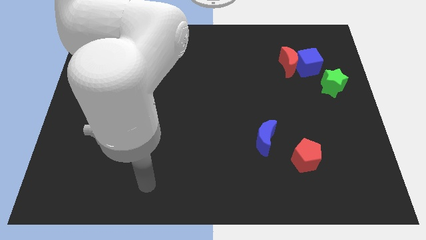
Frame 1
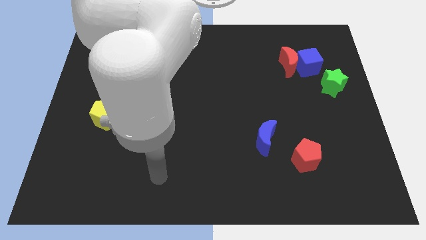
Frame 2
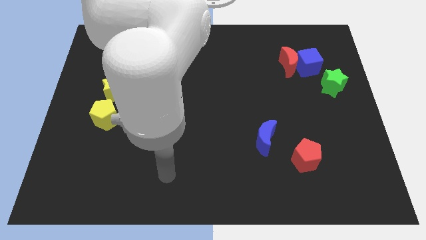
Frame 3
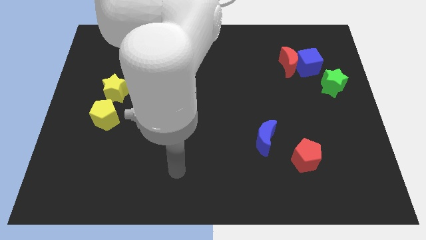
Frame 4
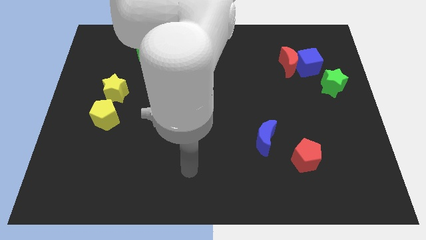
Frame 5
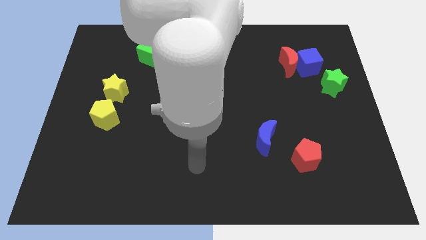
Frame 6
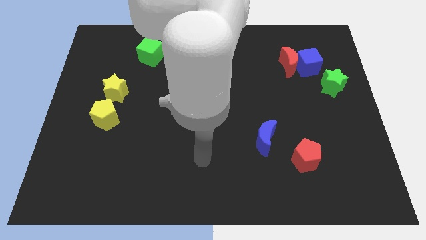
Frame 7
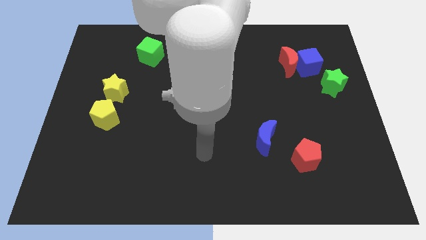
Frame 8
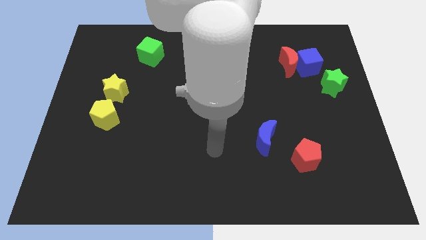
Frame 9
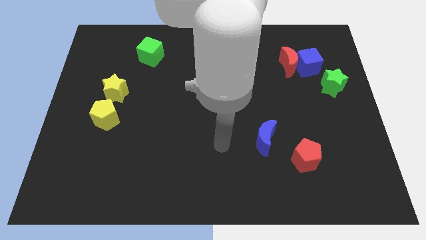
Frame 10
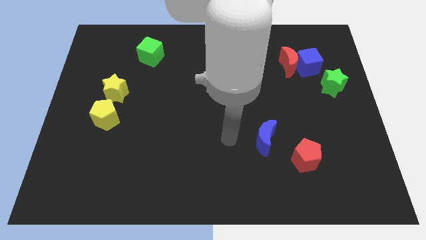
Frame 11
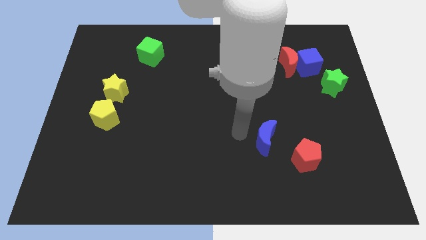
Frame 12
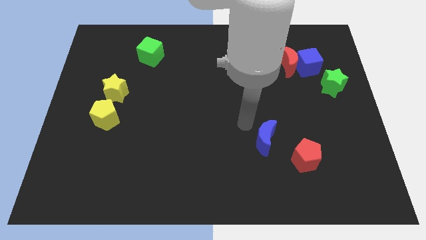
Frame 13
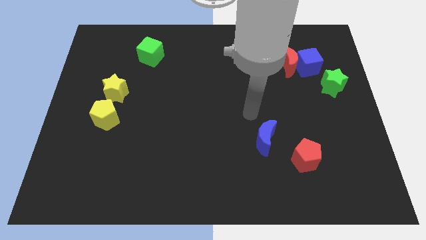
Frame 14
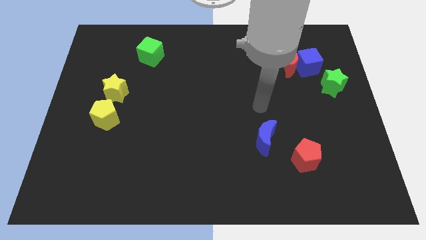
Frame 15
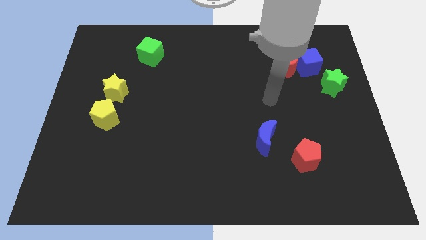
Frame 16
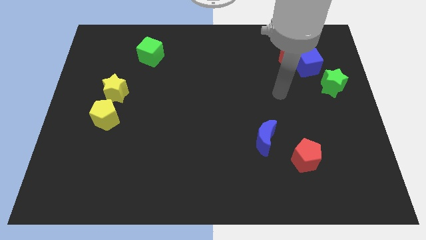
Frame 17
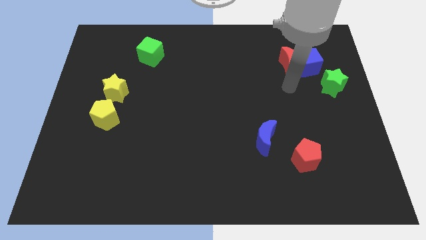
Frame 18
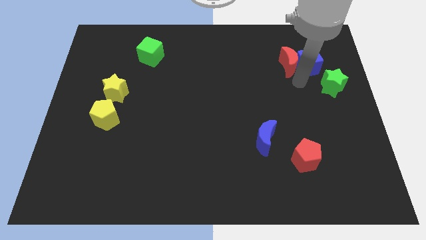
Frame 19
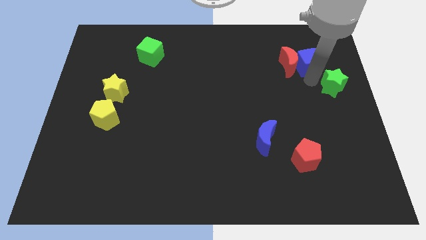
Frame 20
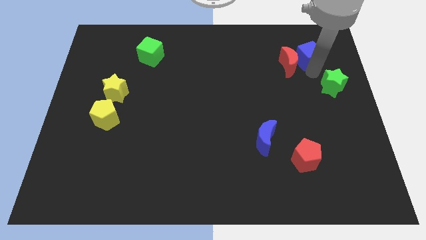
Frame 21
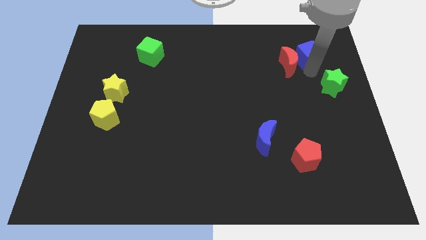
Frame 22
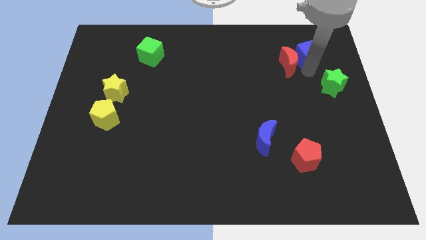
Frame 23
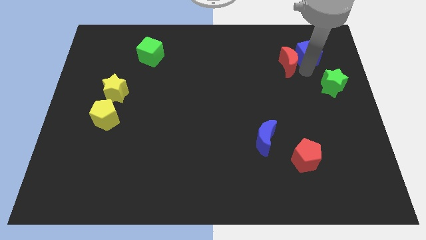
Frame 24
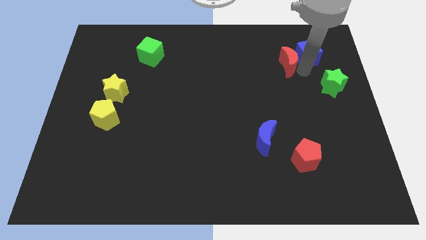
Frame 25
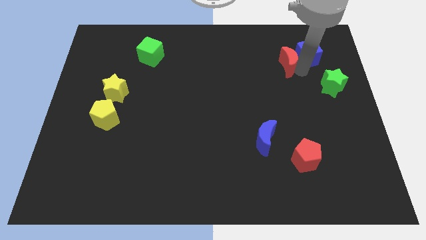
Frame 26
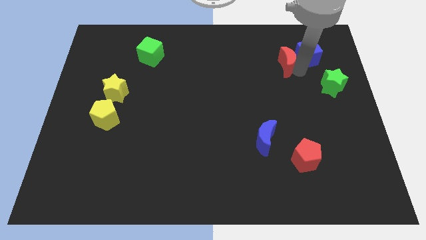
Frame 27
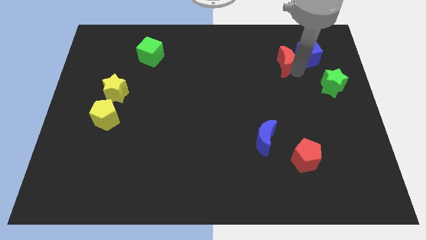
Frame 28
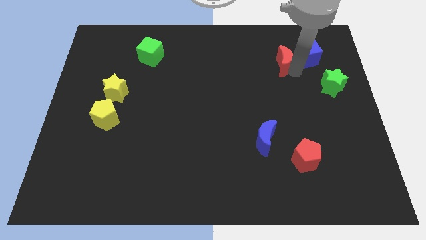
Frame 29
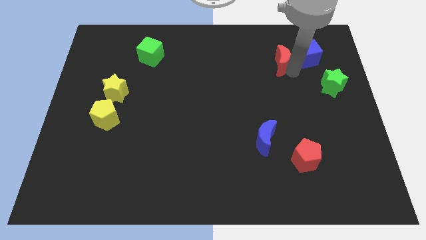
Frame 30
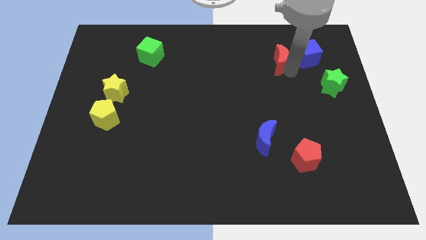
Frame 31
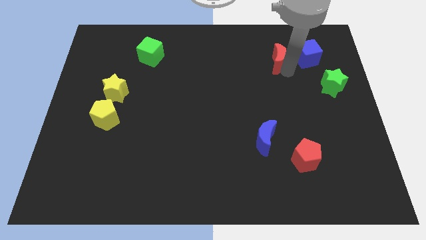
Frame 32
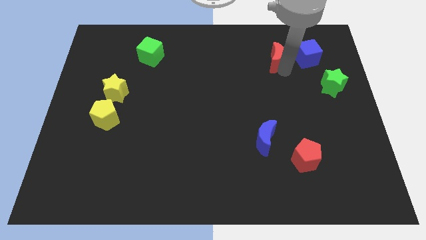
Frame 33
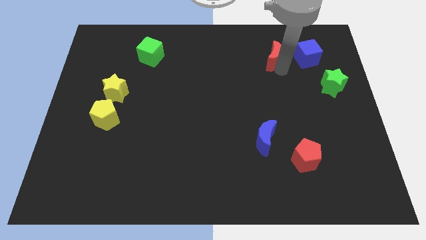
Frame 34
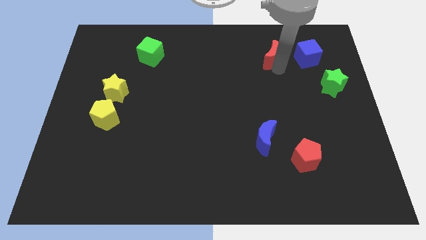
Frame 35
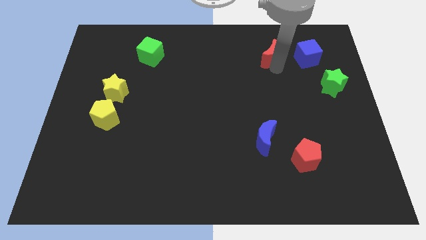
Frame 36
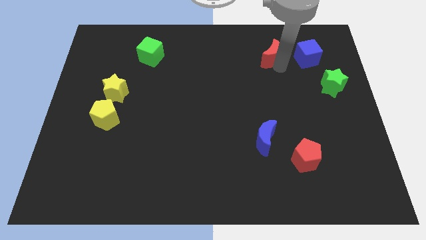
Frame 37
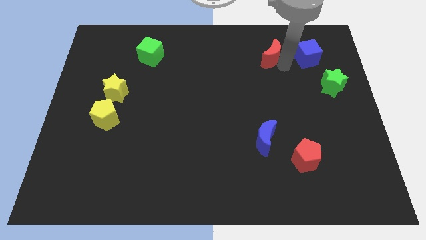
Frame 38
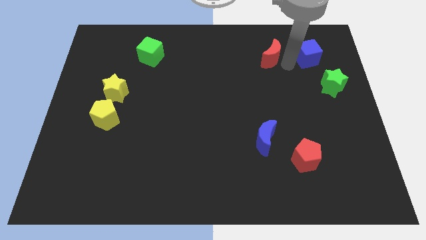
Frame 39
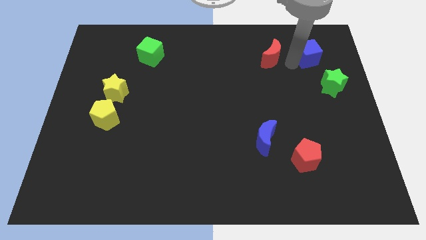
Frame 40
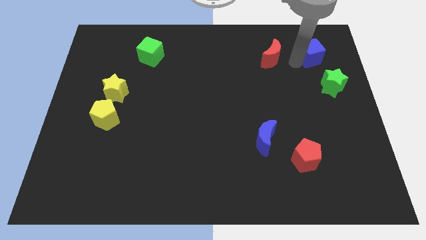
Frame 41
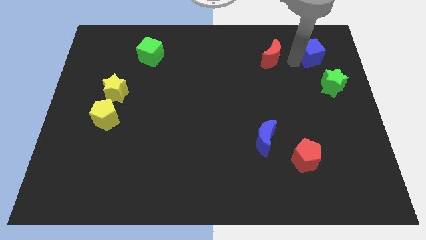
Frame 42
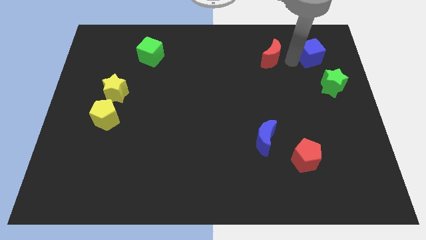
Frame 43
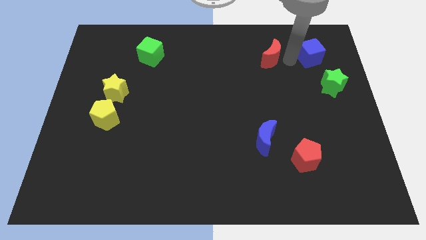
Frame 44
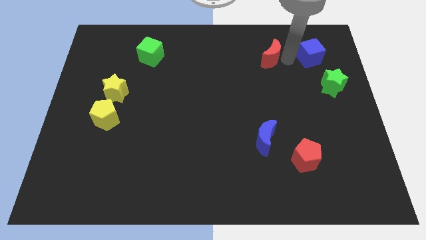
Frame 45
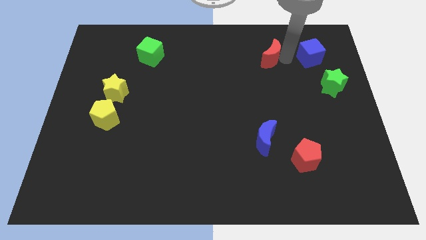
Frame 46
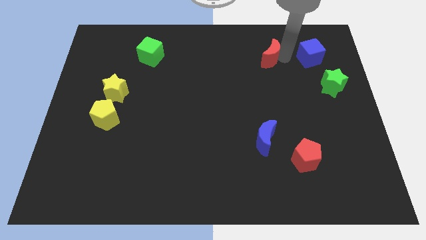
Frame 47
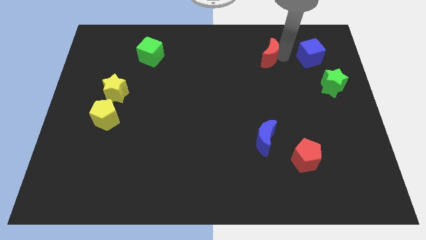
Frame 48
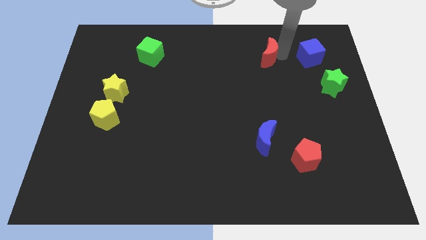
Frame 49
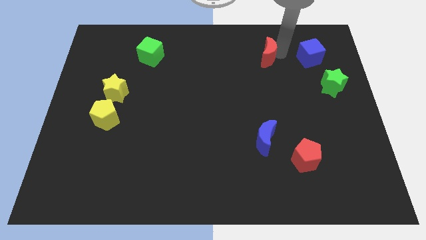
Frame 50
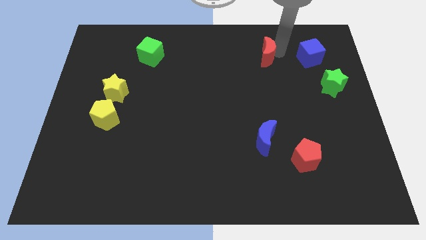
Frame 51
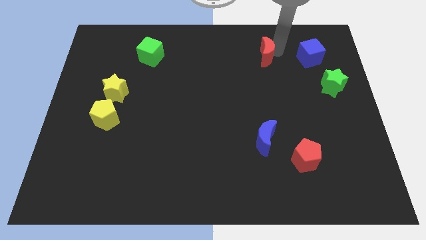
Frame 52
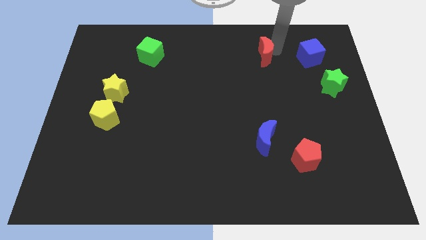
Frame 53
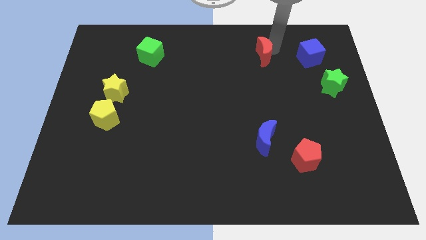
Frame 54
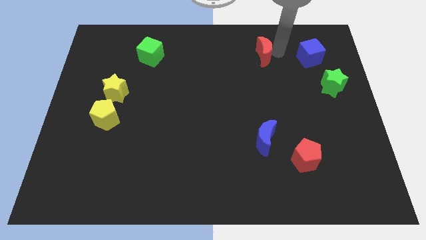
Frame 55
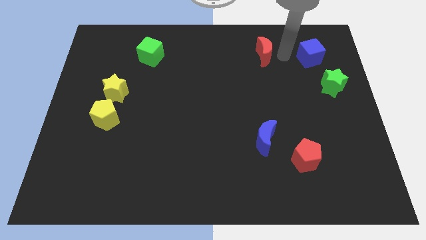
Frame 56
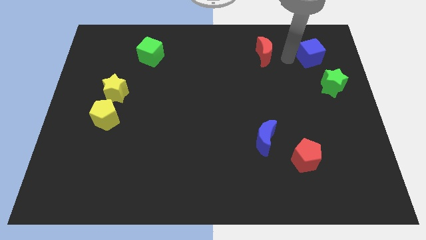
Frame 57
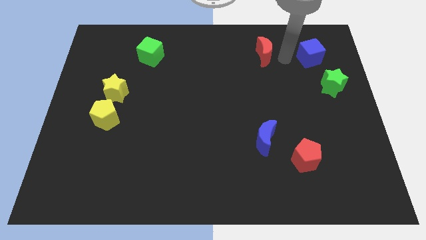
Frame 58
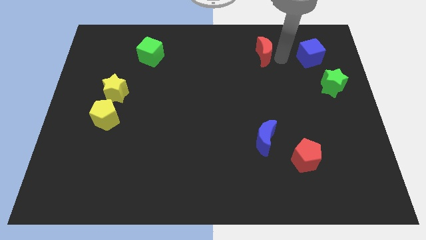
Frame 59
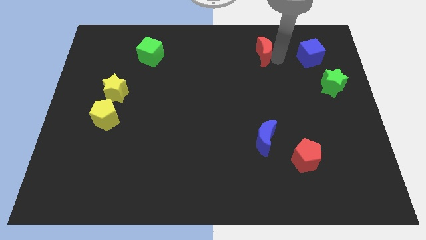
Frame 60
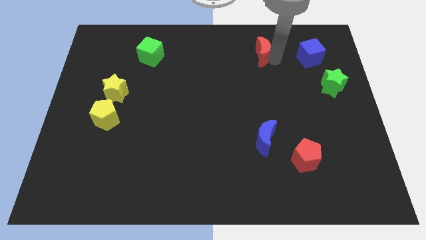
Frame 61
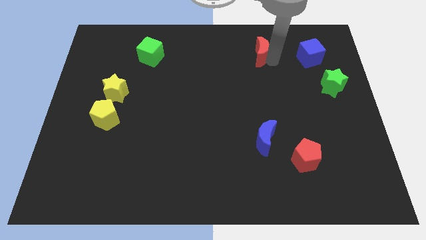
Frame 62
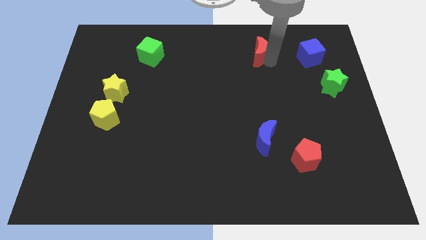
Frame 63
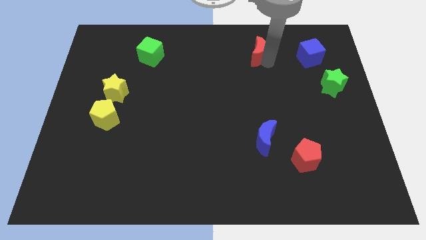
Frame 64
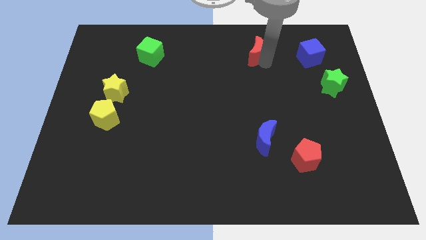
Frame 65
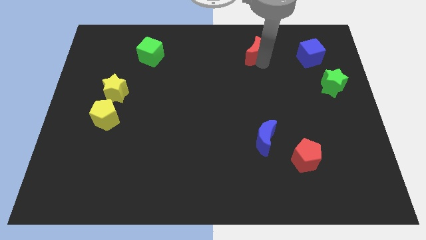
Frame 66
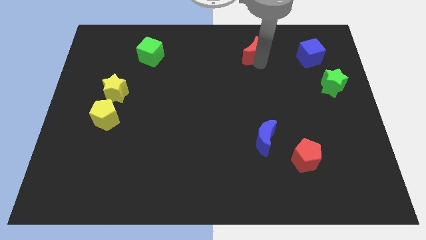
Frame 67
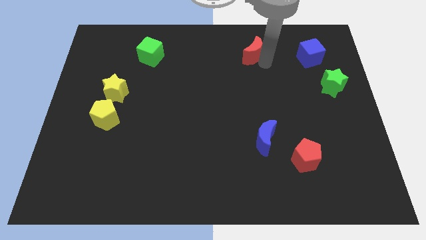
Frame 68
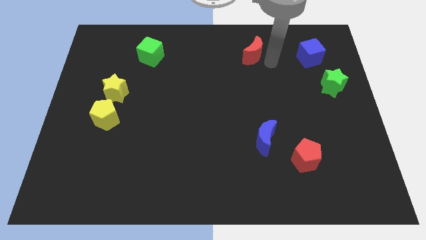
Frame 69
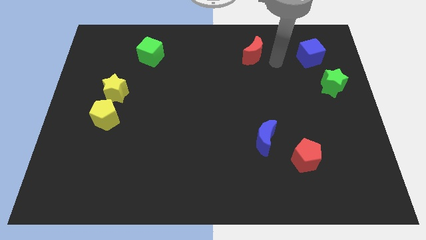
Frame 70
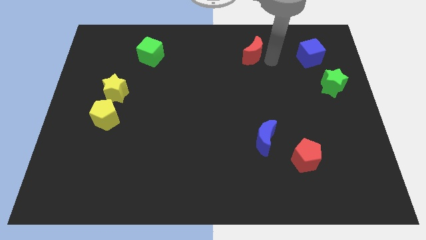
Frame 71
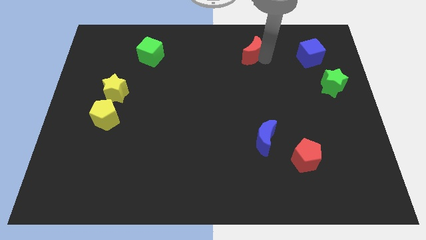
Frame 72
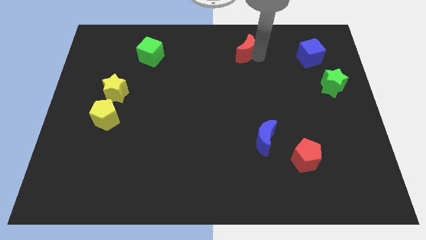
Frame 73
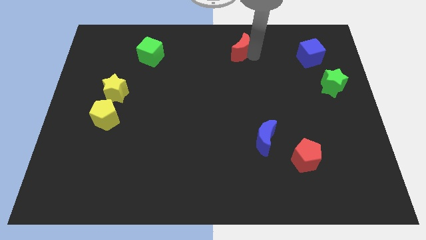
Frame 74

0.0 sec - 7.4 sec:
push the red moon to the top side
